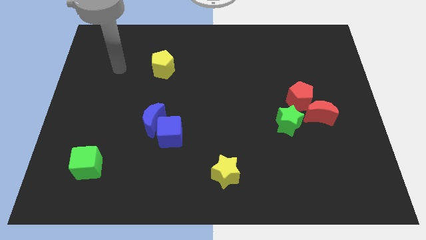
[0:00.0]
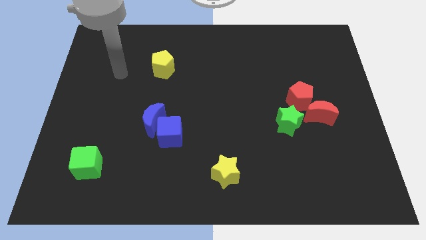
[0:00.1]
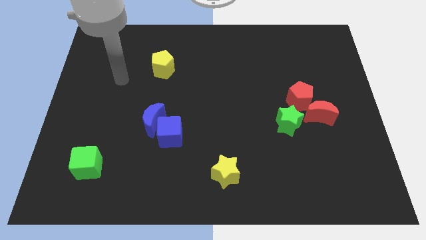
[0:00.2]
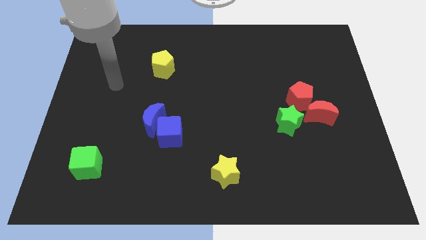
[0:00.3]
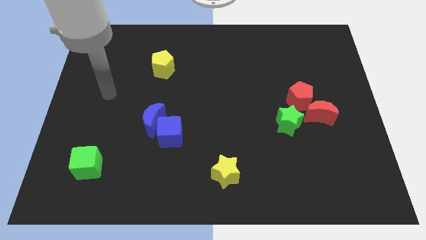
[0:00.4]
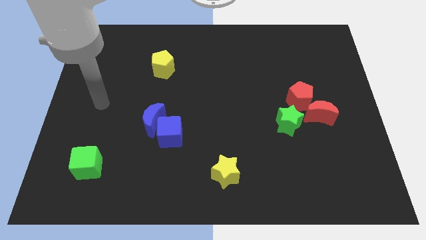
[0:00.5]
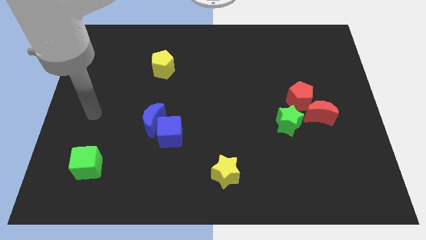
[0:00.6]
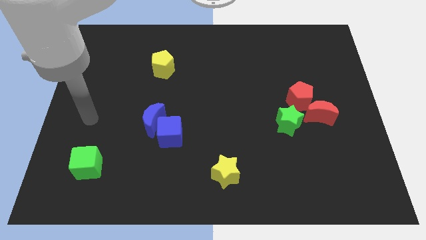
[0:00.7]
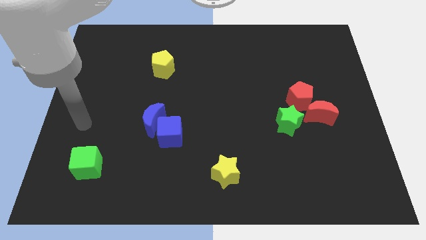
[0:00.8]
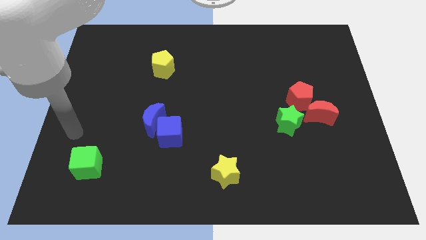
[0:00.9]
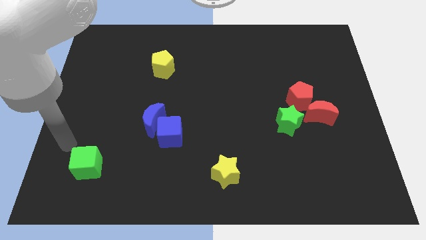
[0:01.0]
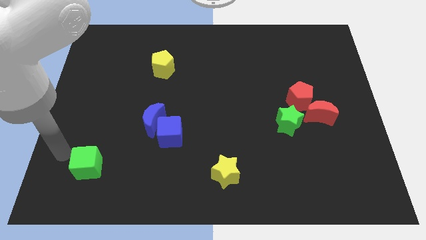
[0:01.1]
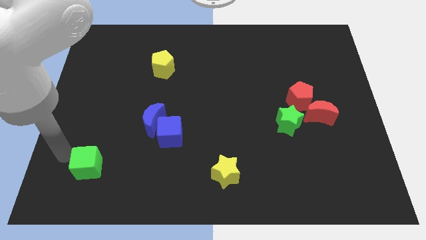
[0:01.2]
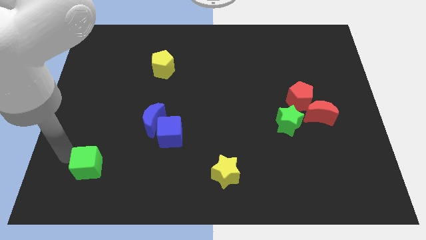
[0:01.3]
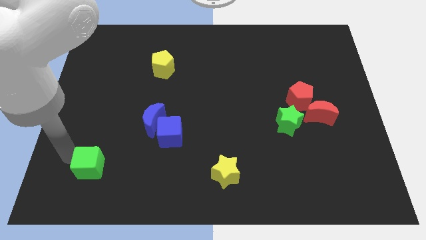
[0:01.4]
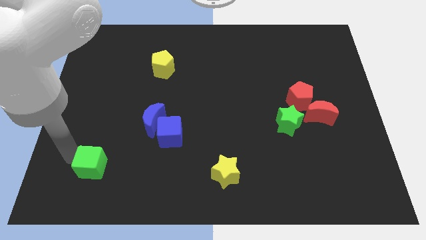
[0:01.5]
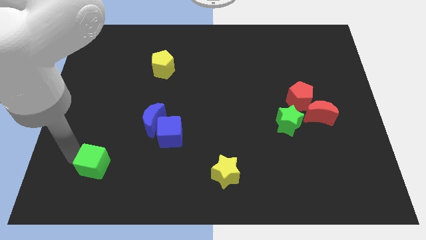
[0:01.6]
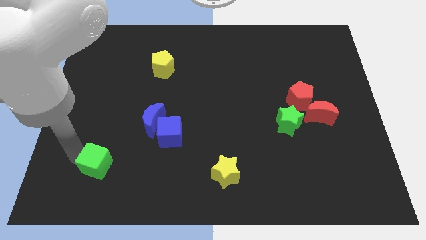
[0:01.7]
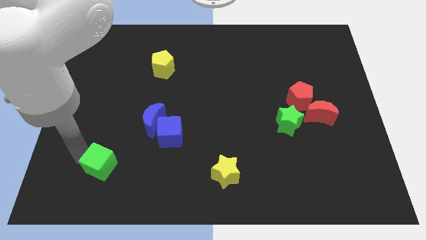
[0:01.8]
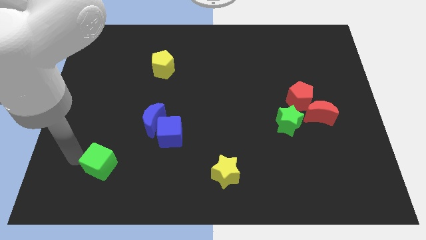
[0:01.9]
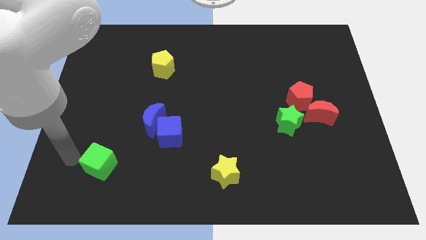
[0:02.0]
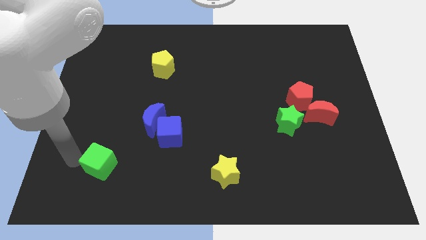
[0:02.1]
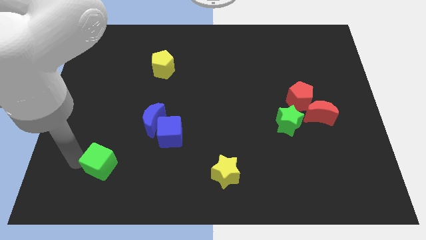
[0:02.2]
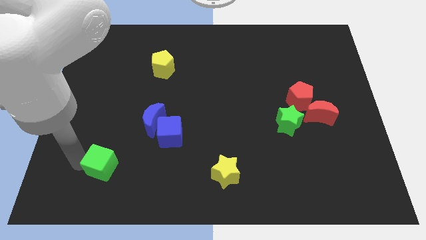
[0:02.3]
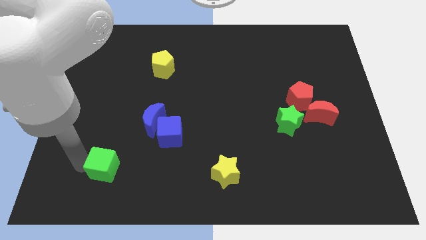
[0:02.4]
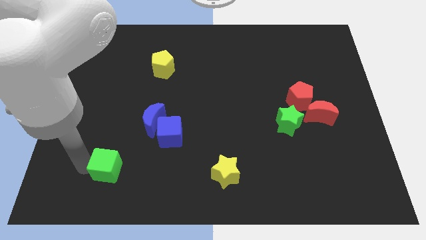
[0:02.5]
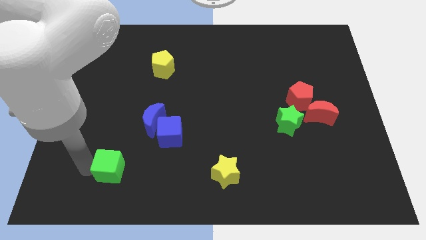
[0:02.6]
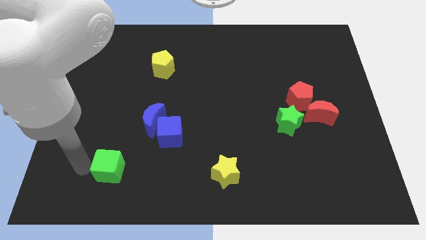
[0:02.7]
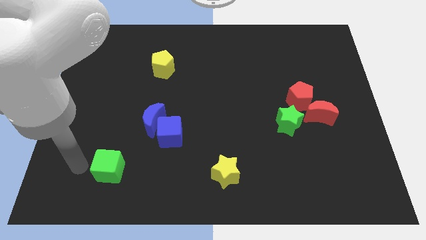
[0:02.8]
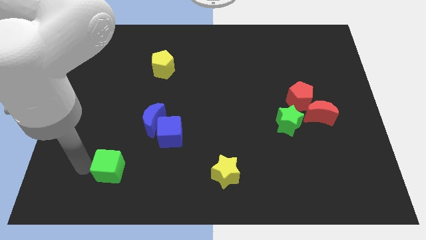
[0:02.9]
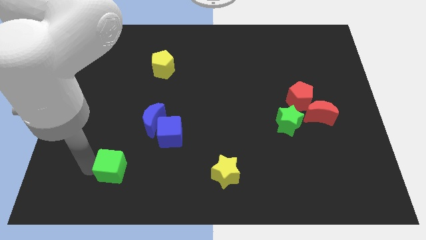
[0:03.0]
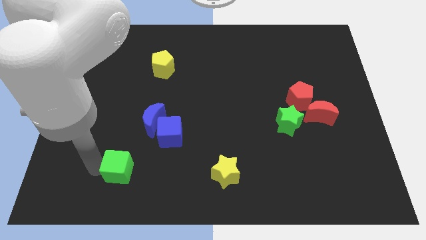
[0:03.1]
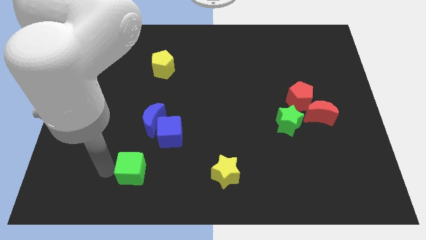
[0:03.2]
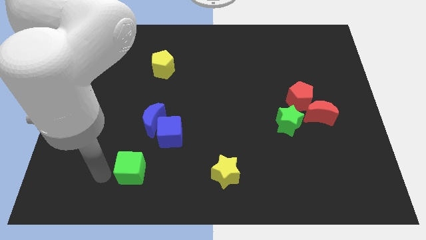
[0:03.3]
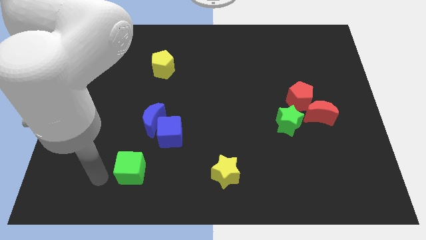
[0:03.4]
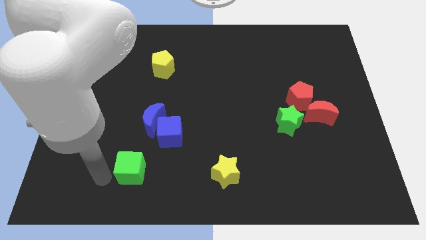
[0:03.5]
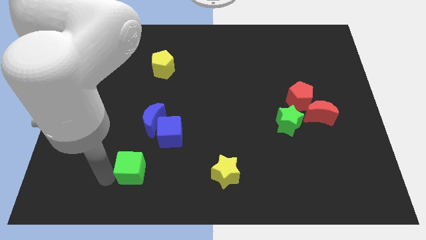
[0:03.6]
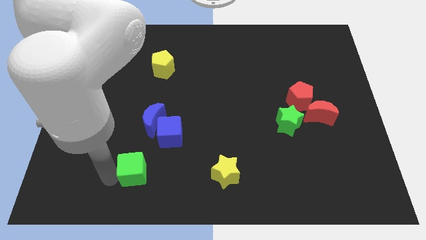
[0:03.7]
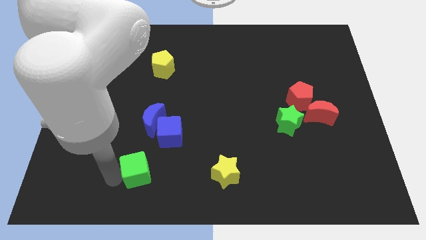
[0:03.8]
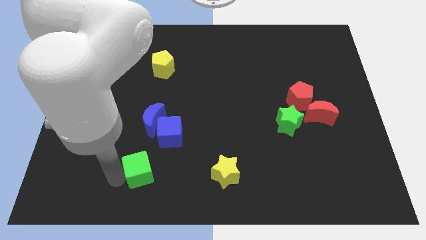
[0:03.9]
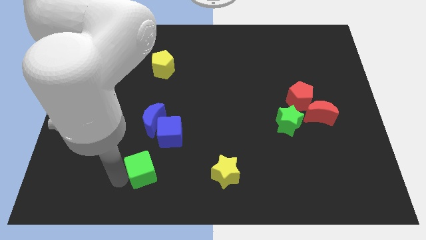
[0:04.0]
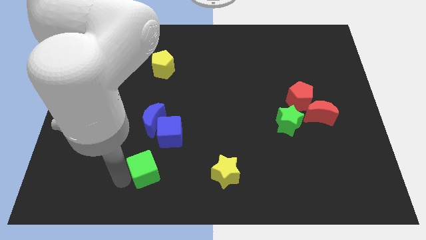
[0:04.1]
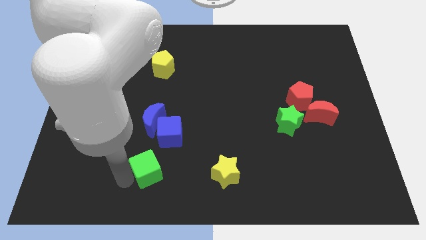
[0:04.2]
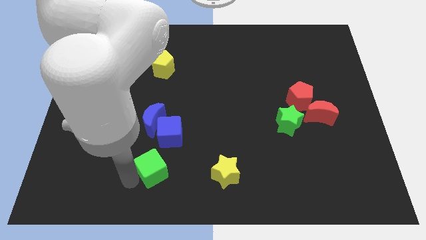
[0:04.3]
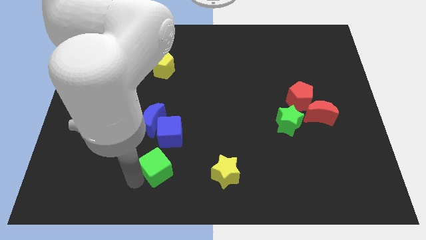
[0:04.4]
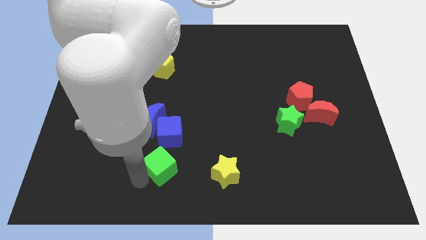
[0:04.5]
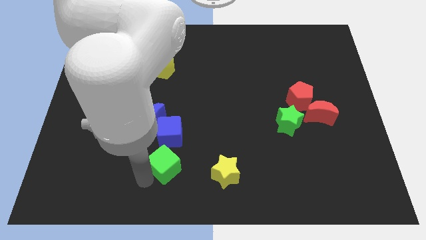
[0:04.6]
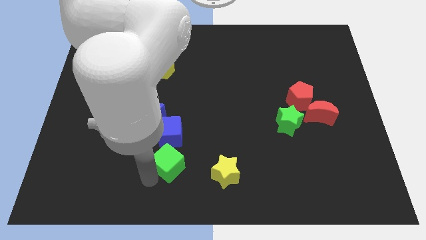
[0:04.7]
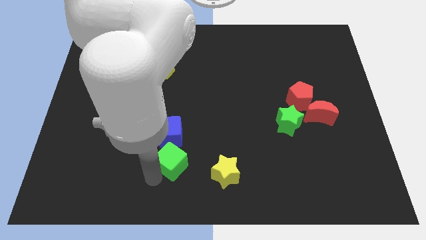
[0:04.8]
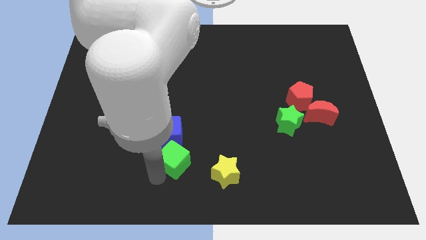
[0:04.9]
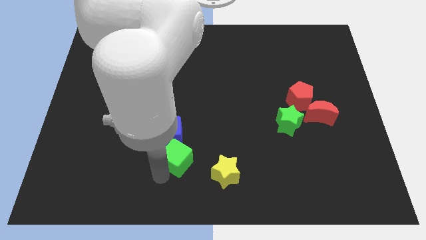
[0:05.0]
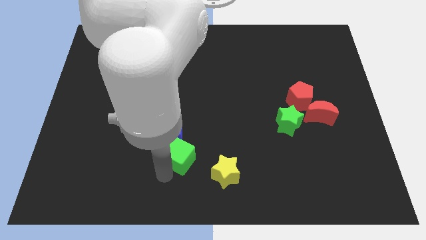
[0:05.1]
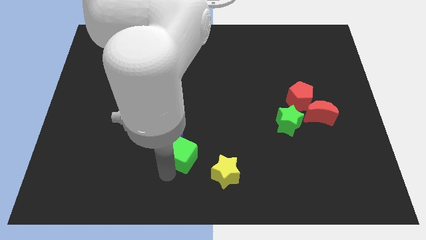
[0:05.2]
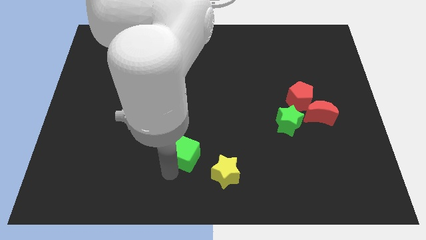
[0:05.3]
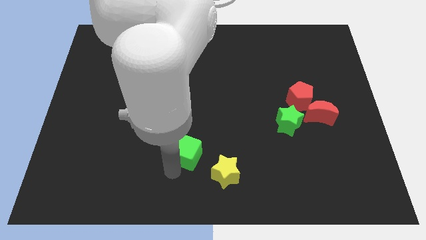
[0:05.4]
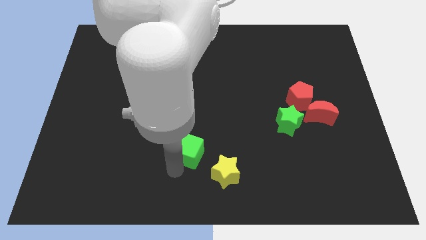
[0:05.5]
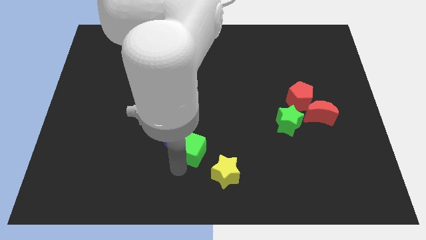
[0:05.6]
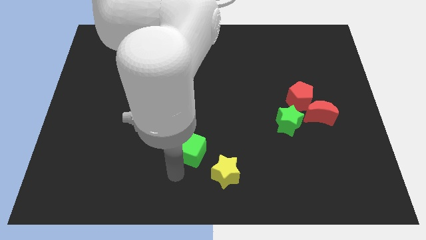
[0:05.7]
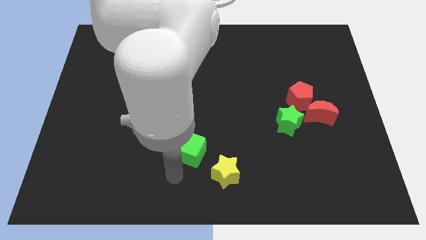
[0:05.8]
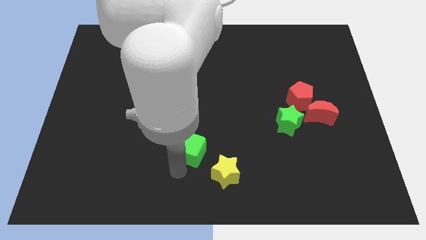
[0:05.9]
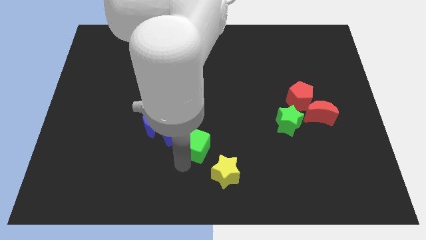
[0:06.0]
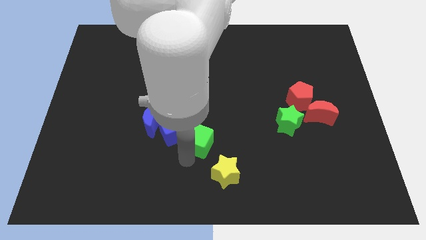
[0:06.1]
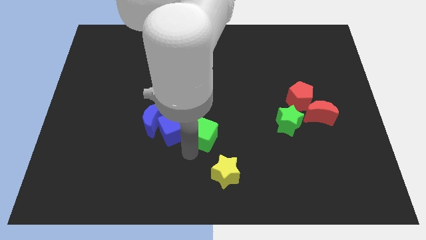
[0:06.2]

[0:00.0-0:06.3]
slide the green cube to the top of the yellow star
